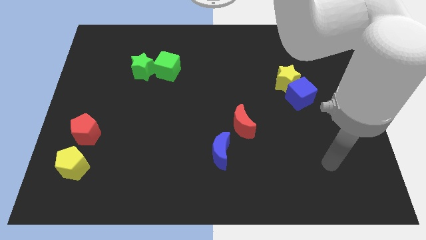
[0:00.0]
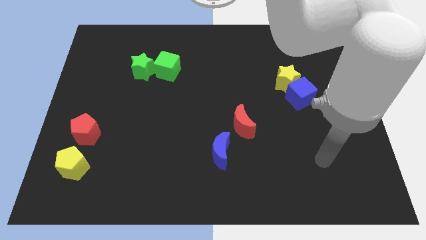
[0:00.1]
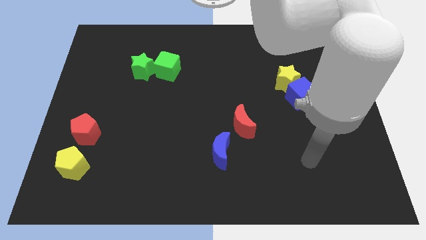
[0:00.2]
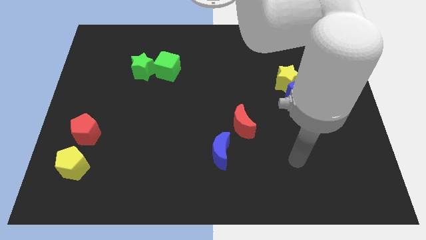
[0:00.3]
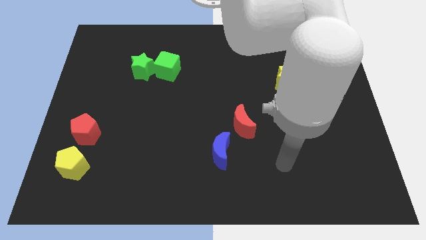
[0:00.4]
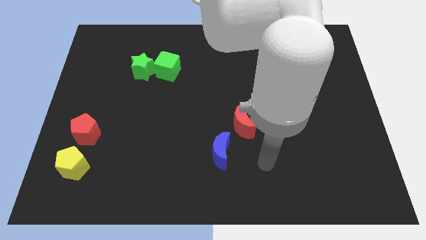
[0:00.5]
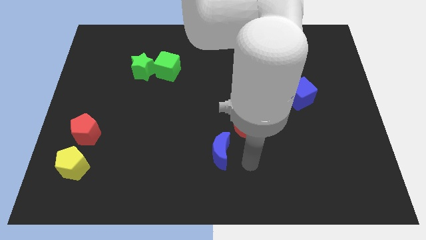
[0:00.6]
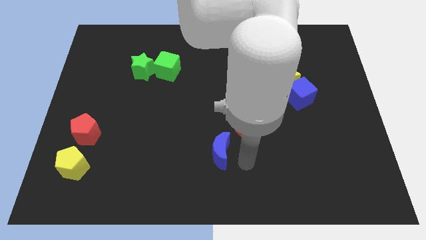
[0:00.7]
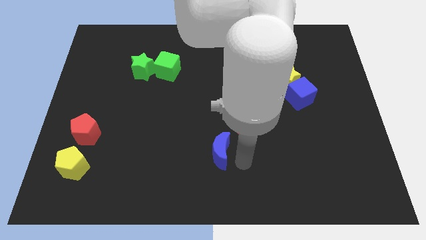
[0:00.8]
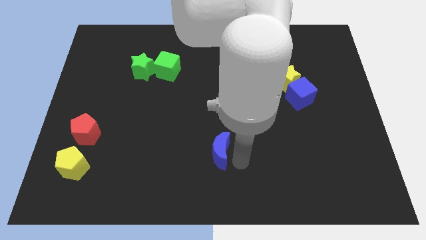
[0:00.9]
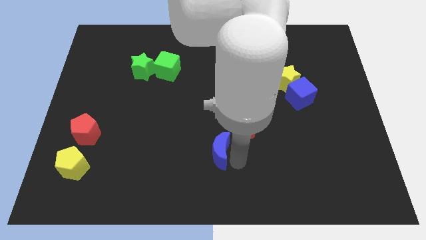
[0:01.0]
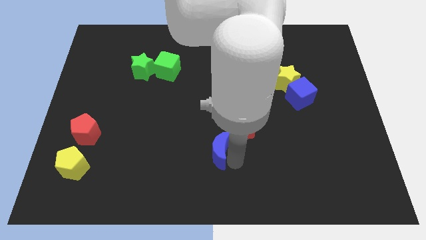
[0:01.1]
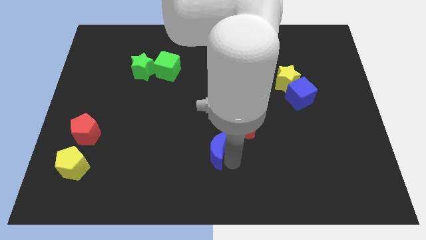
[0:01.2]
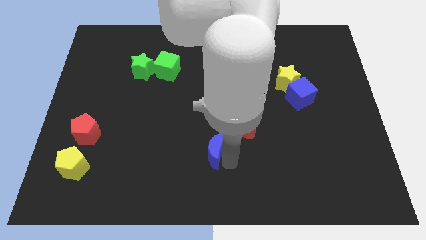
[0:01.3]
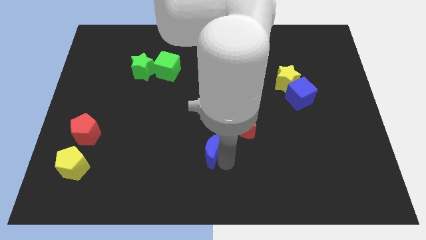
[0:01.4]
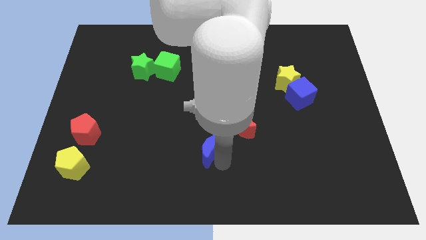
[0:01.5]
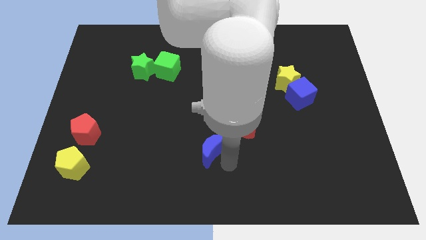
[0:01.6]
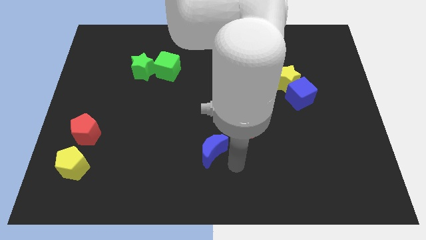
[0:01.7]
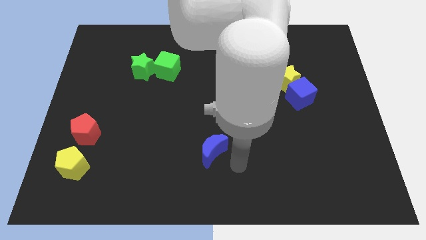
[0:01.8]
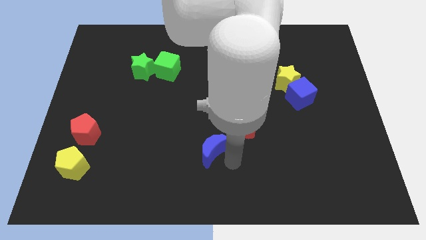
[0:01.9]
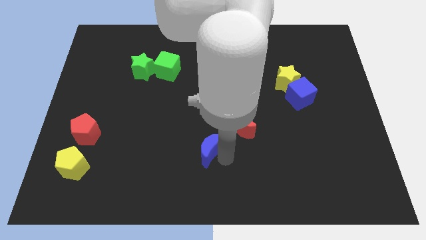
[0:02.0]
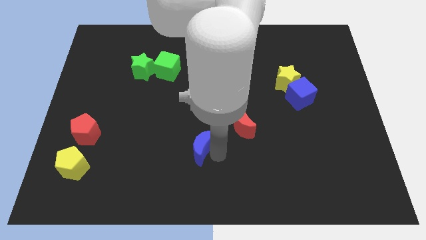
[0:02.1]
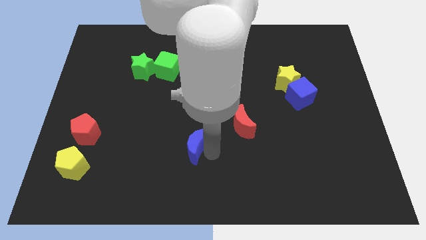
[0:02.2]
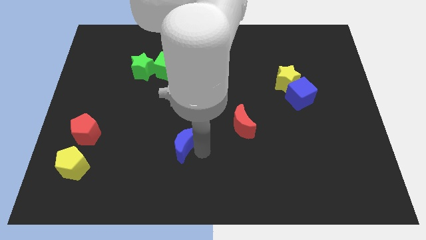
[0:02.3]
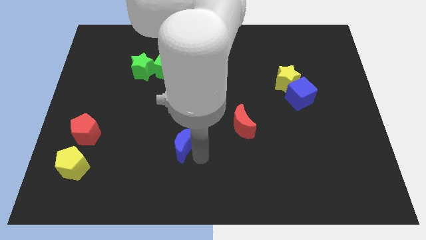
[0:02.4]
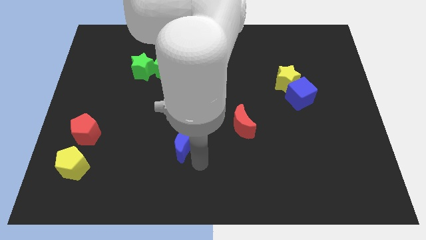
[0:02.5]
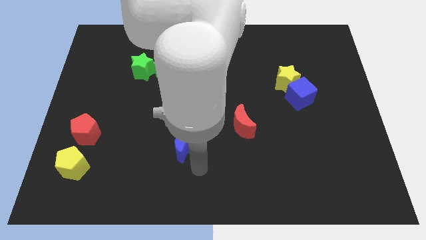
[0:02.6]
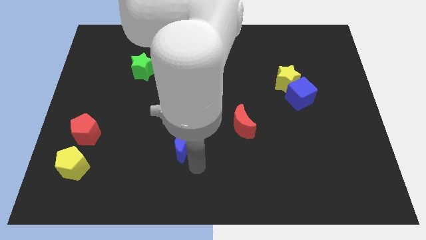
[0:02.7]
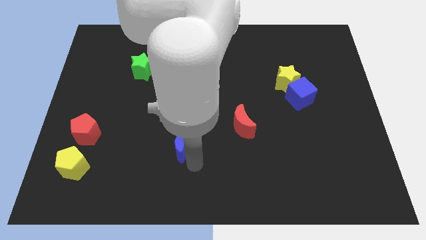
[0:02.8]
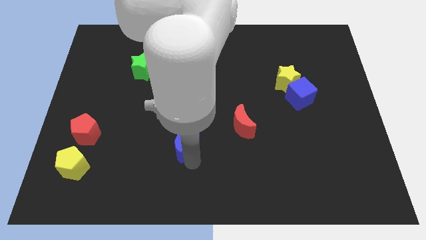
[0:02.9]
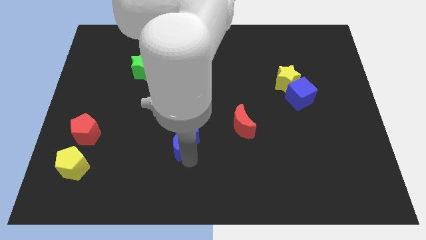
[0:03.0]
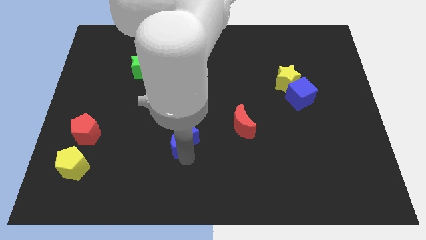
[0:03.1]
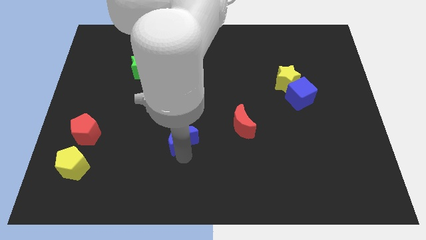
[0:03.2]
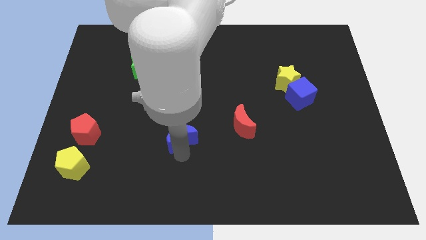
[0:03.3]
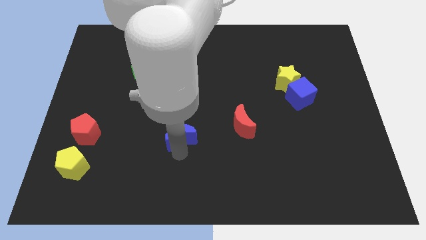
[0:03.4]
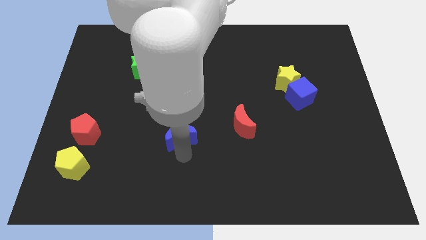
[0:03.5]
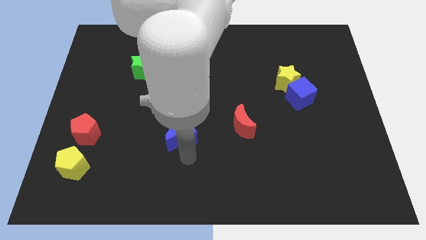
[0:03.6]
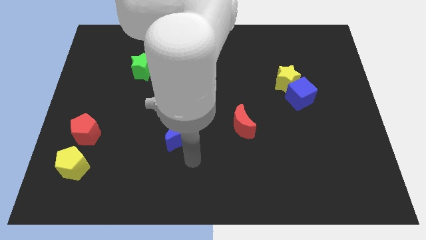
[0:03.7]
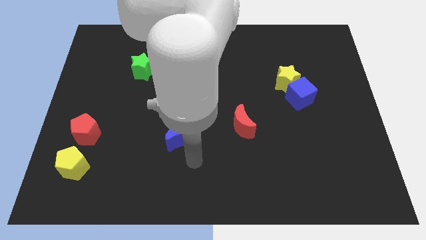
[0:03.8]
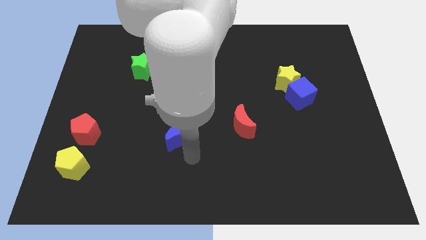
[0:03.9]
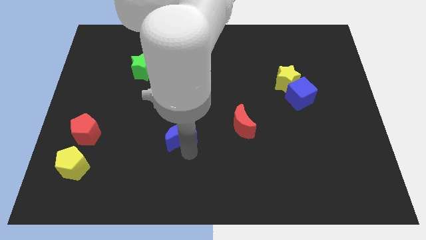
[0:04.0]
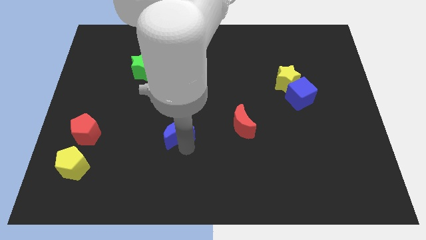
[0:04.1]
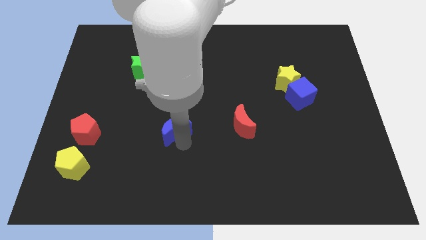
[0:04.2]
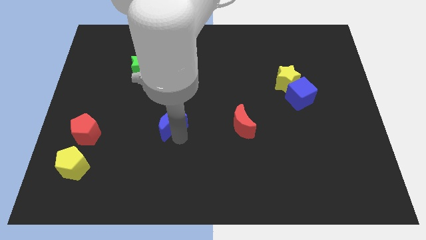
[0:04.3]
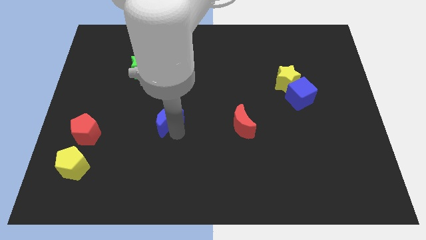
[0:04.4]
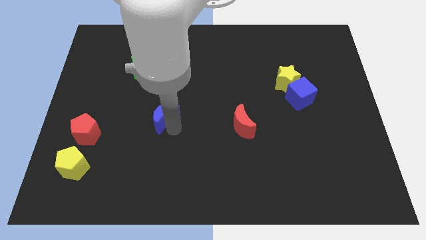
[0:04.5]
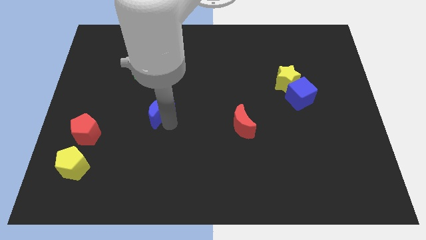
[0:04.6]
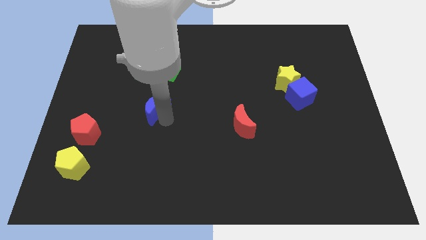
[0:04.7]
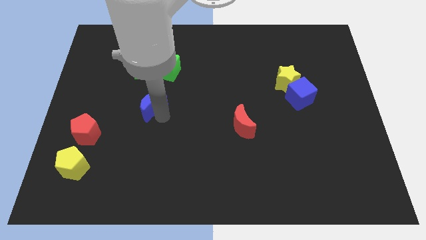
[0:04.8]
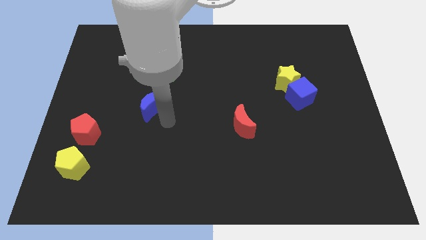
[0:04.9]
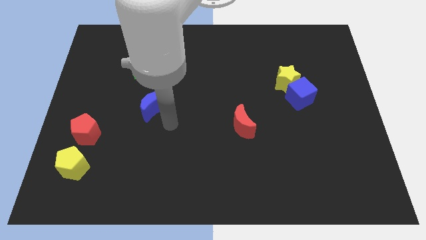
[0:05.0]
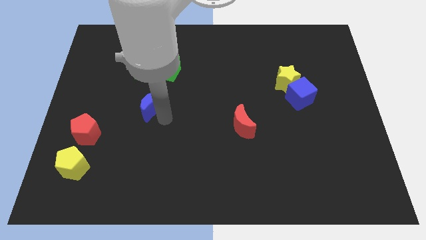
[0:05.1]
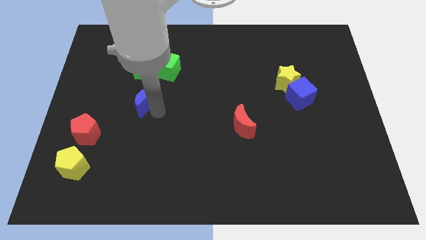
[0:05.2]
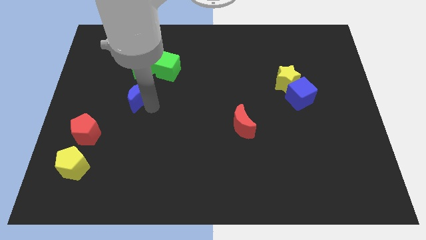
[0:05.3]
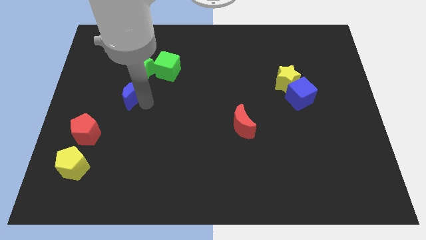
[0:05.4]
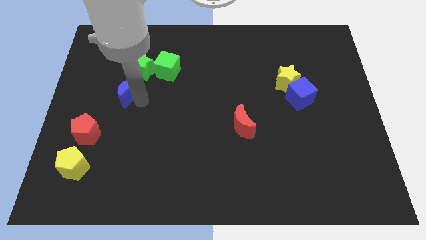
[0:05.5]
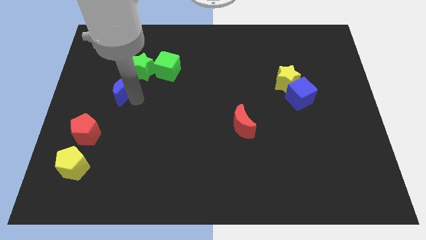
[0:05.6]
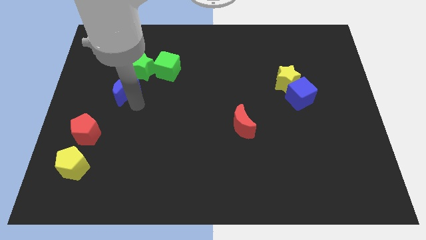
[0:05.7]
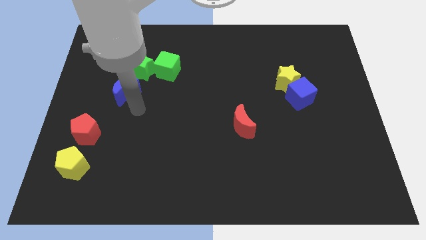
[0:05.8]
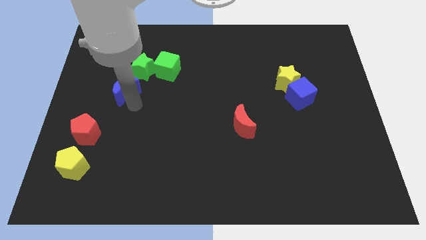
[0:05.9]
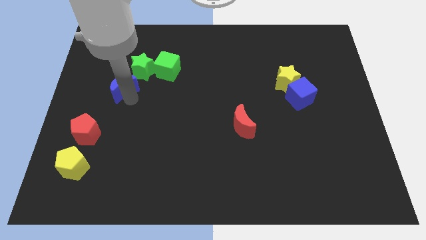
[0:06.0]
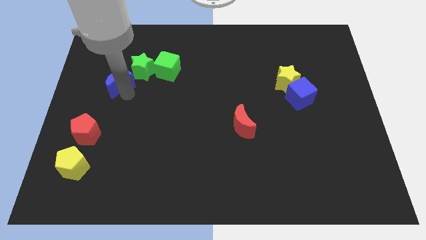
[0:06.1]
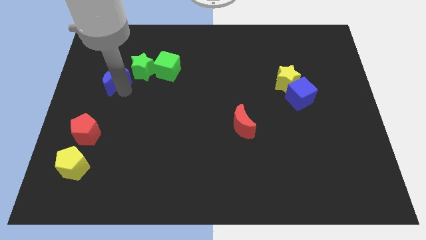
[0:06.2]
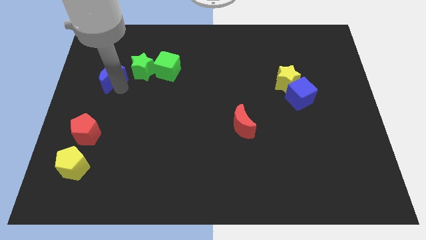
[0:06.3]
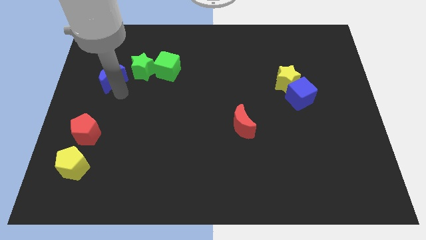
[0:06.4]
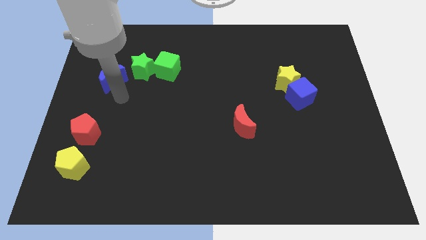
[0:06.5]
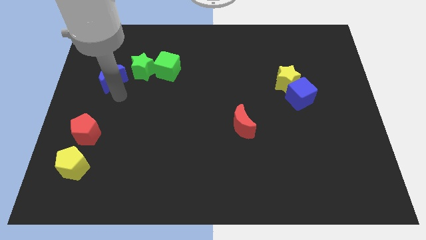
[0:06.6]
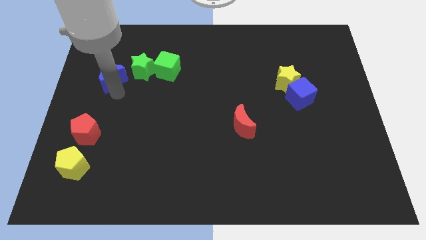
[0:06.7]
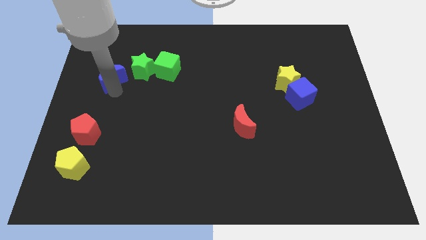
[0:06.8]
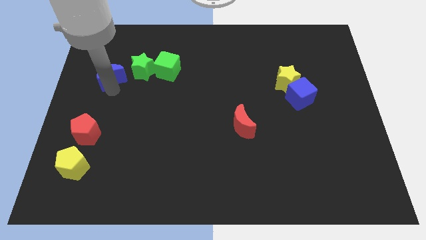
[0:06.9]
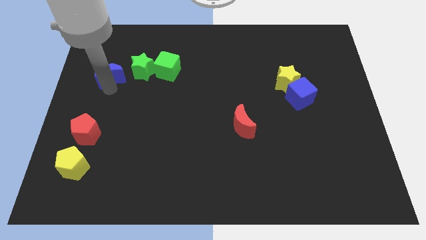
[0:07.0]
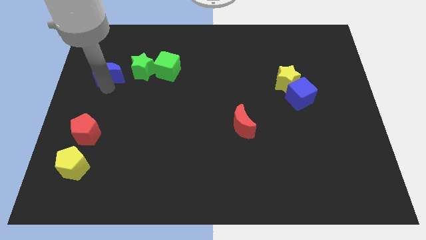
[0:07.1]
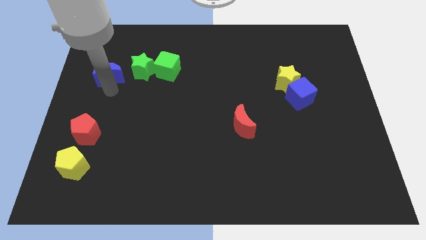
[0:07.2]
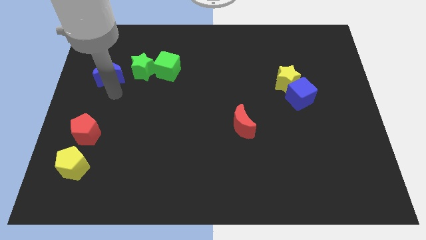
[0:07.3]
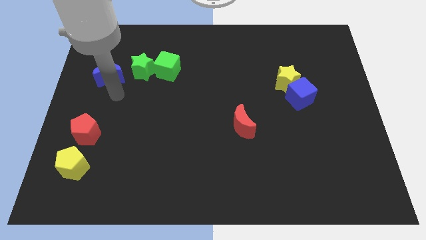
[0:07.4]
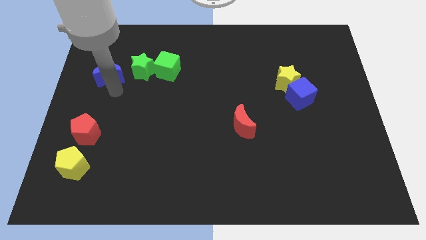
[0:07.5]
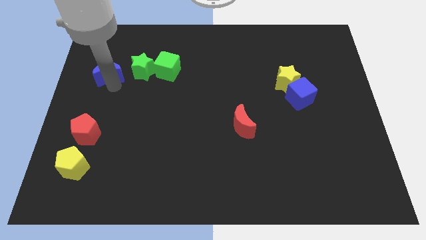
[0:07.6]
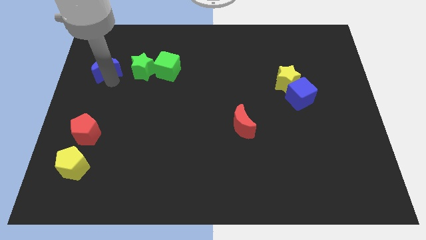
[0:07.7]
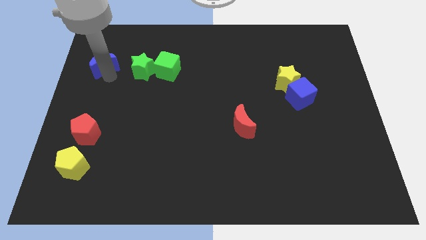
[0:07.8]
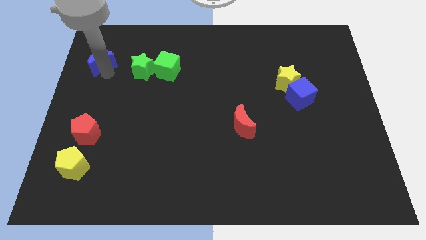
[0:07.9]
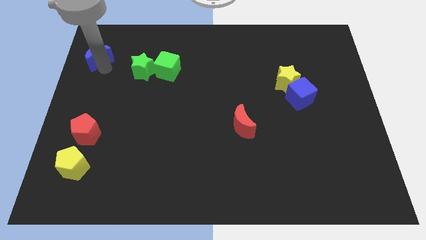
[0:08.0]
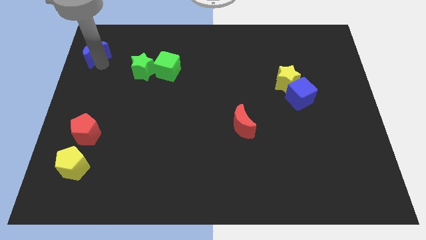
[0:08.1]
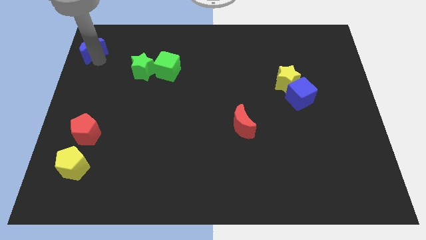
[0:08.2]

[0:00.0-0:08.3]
put the blue moon to the upper left corner
